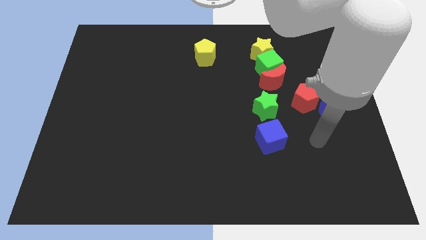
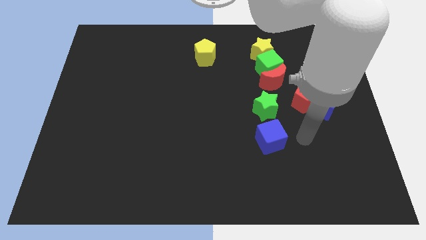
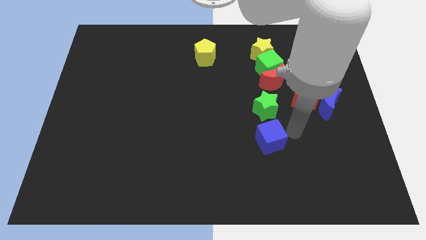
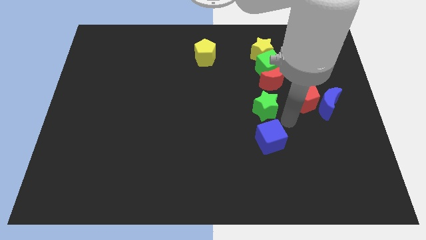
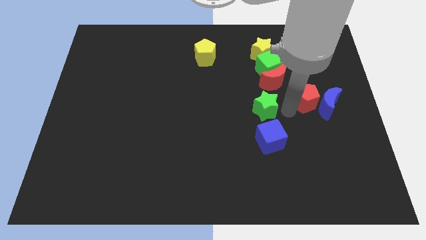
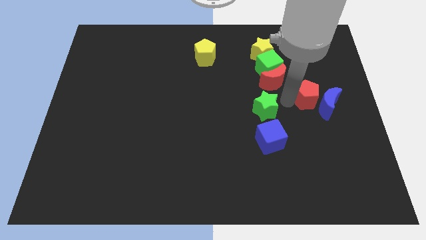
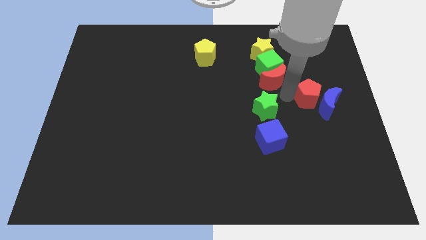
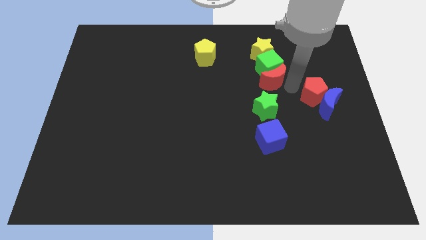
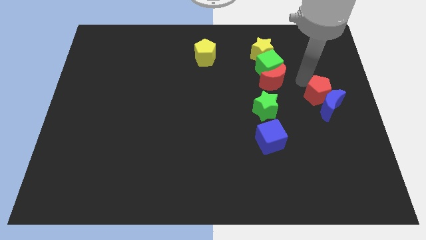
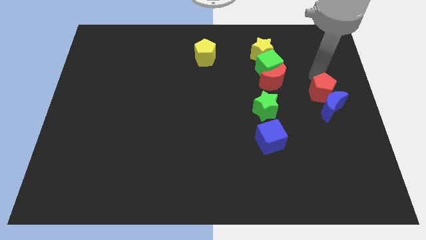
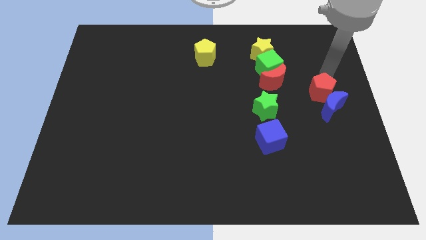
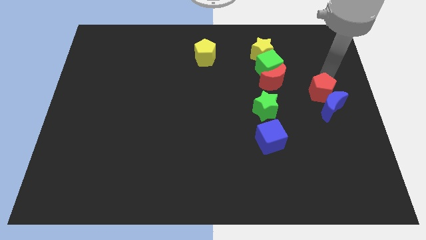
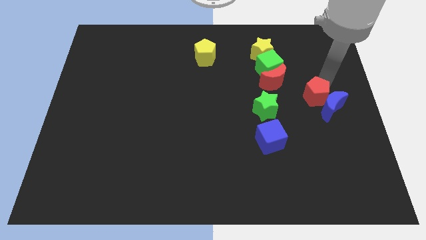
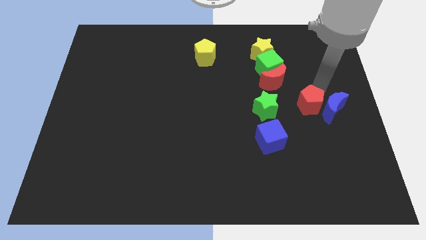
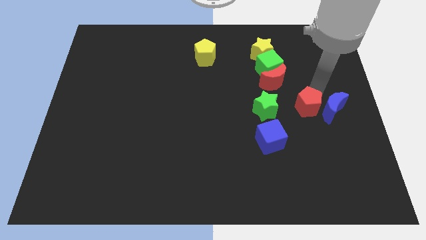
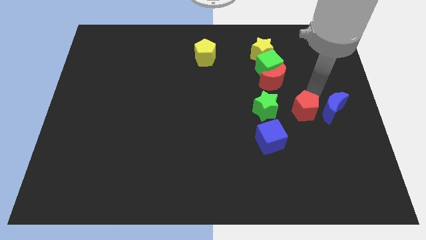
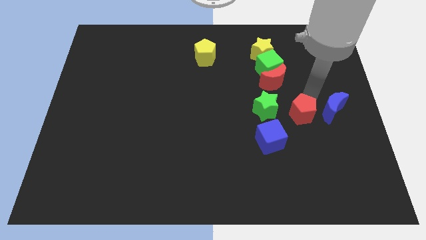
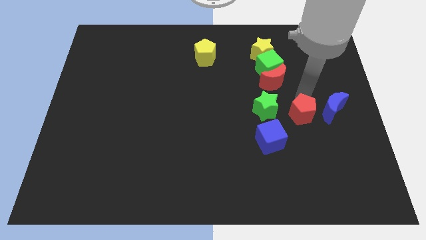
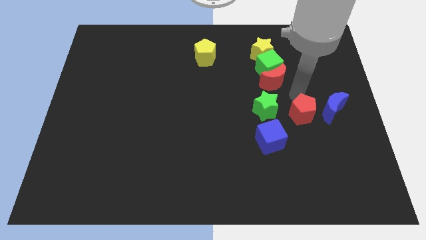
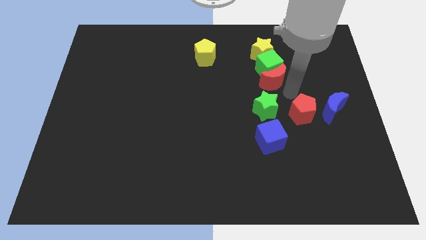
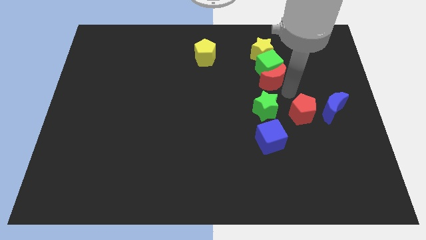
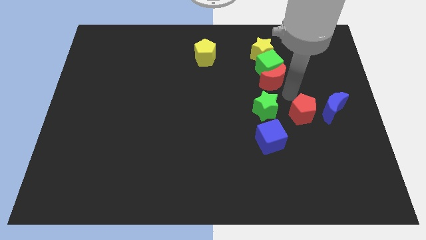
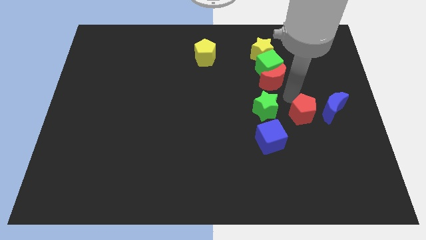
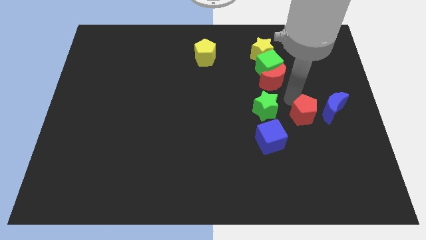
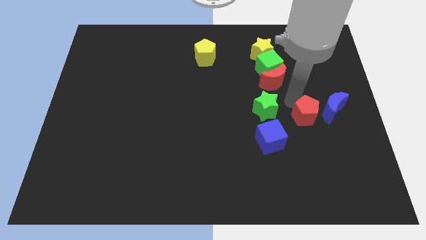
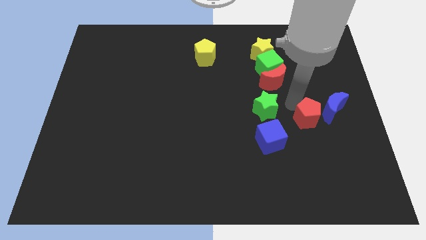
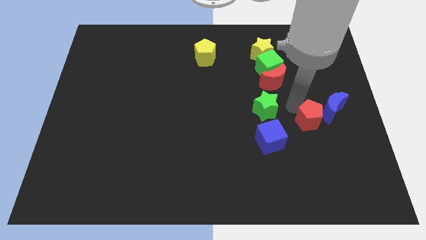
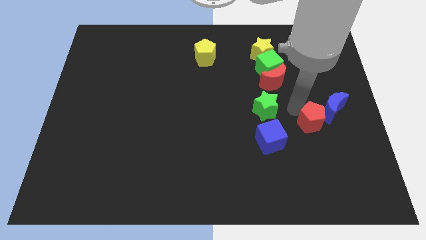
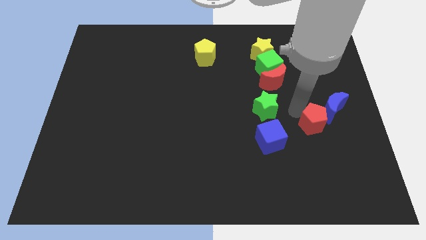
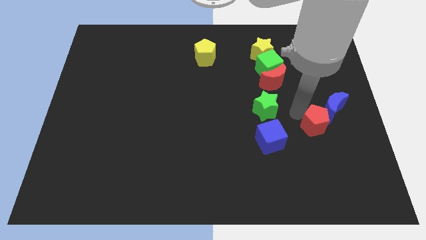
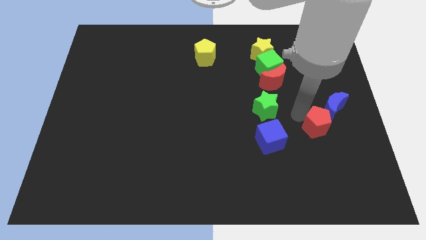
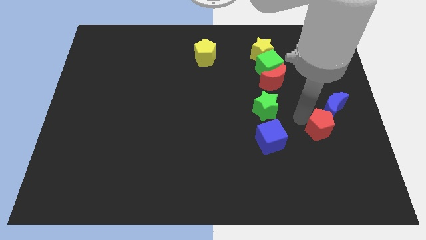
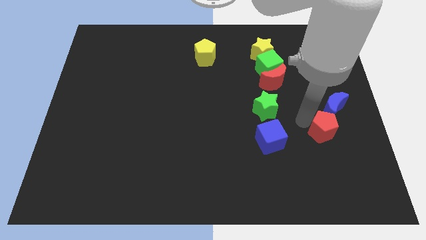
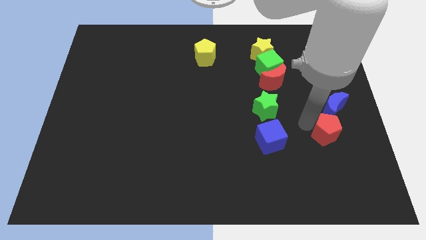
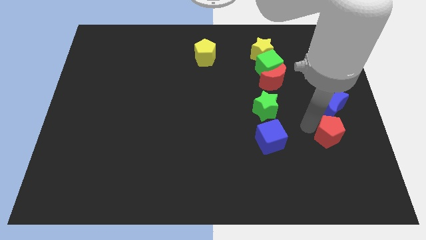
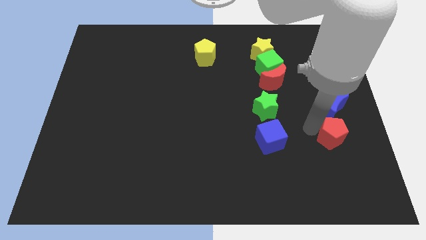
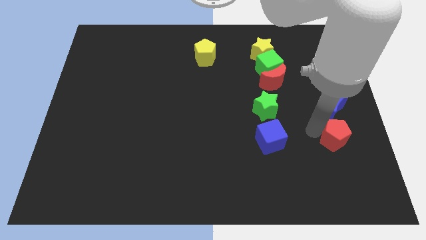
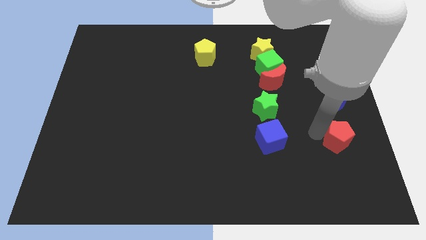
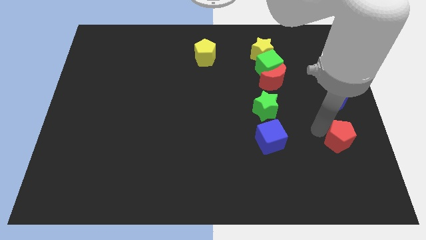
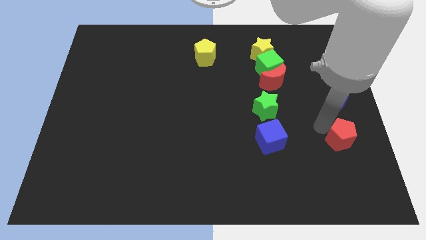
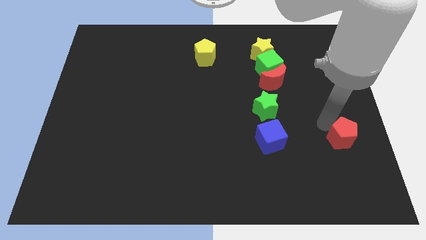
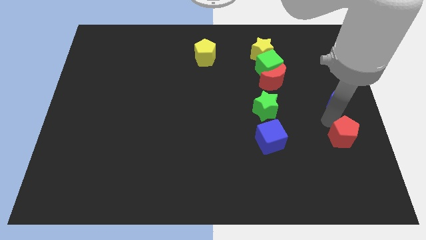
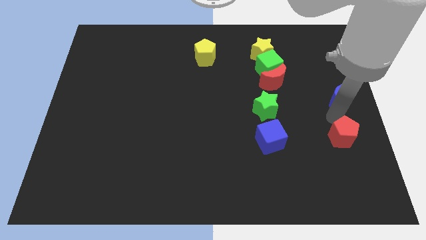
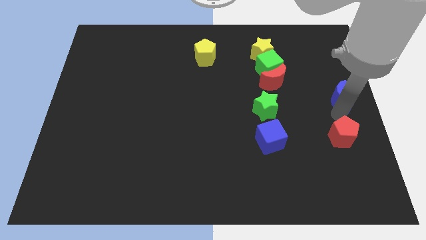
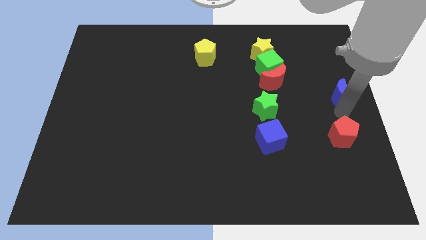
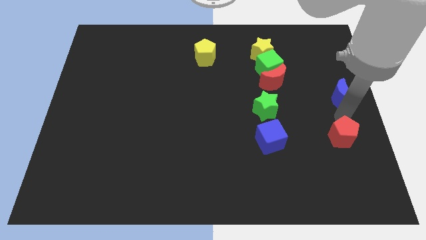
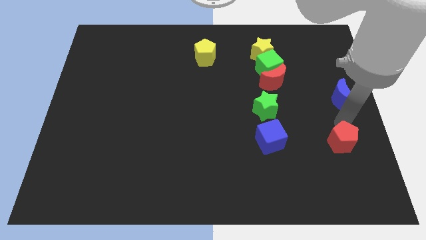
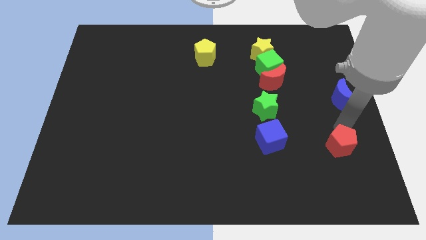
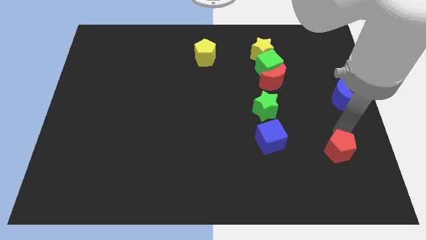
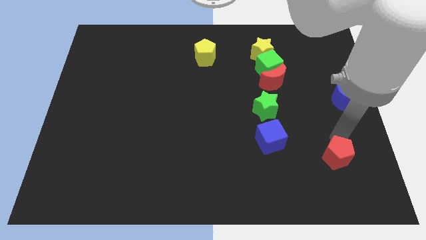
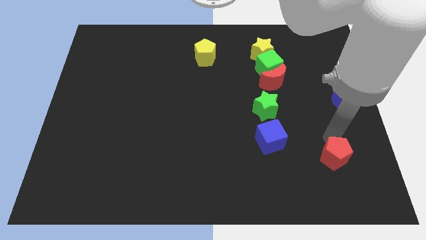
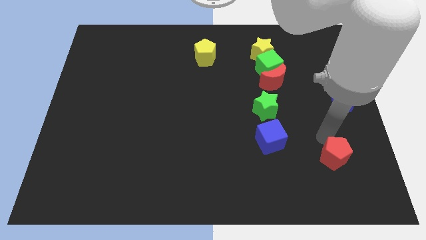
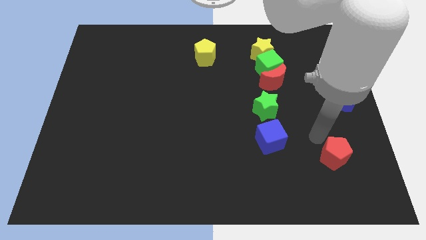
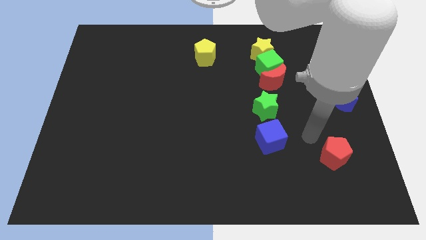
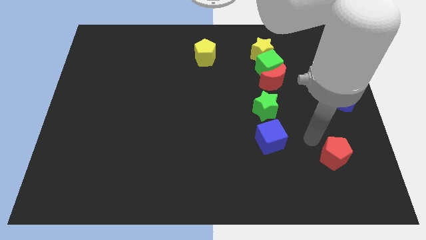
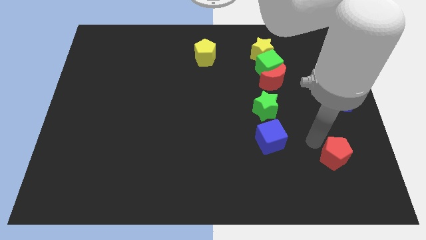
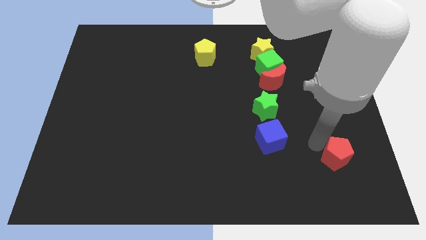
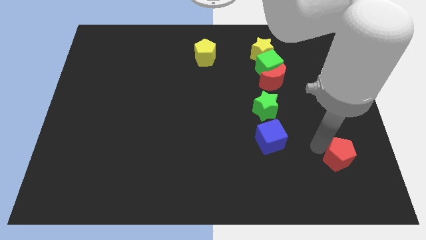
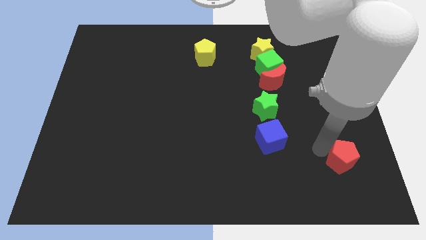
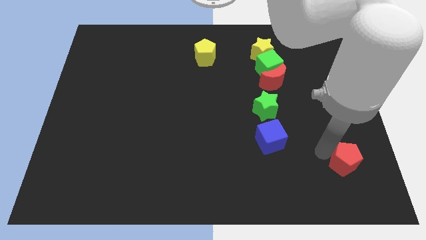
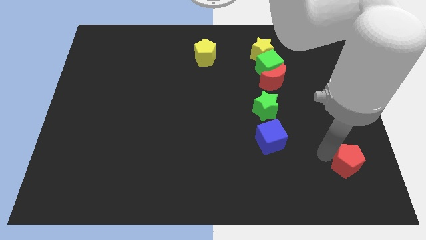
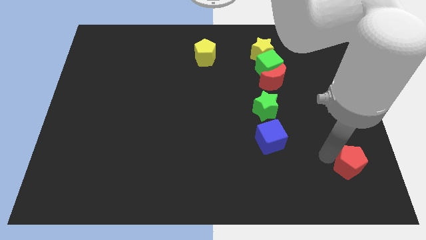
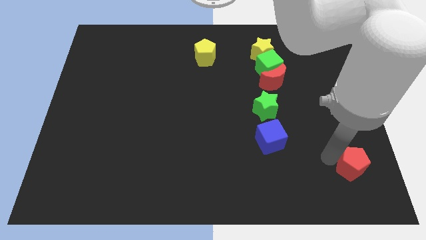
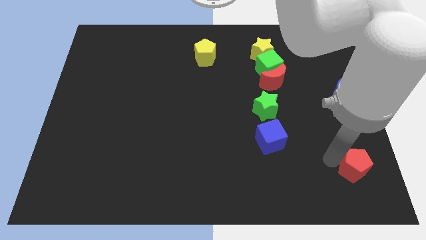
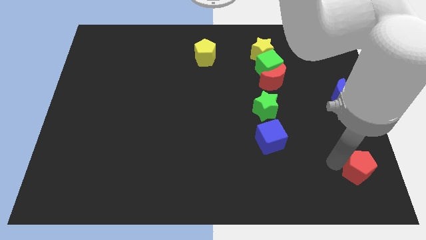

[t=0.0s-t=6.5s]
put the red pentagon to the bottom right corner

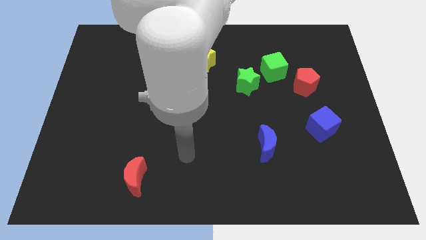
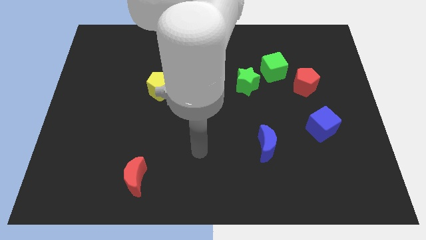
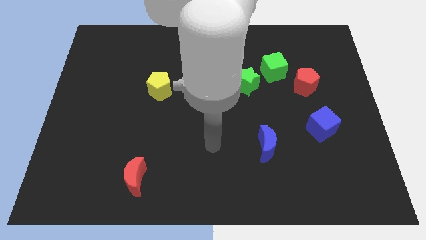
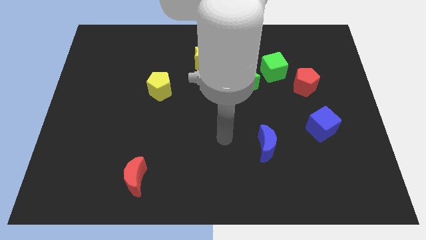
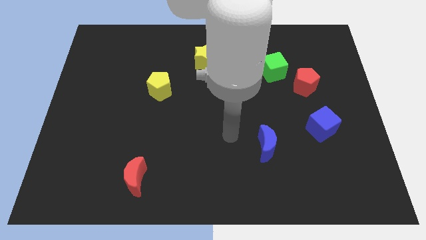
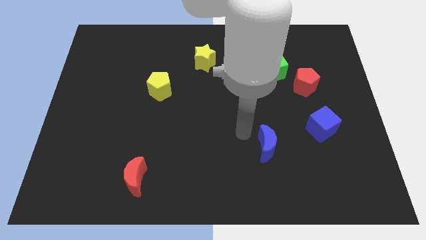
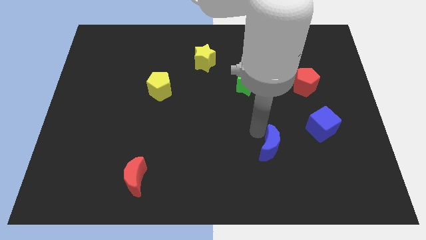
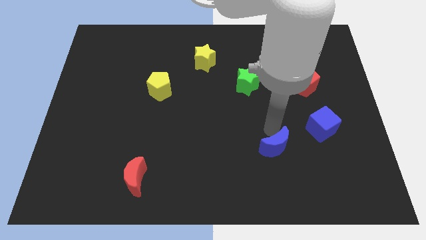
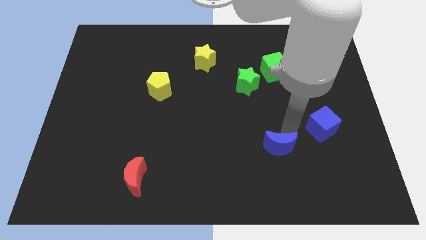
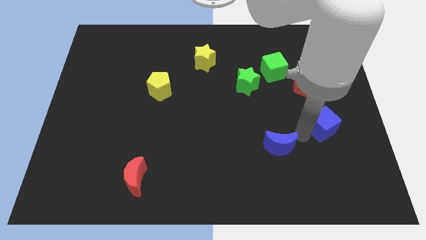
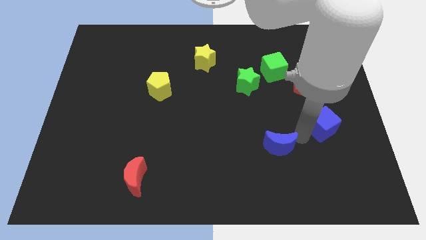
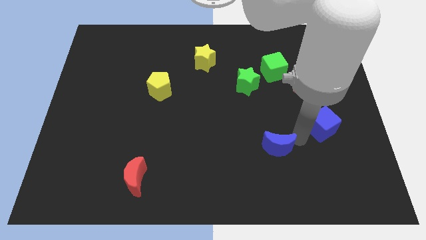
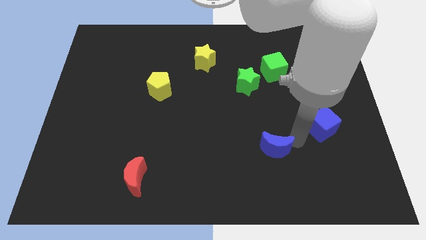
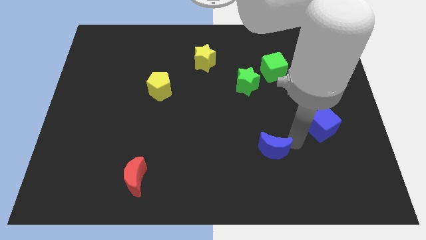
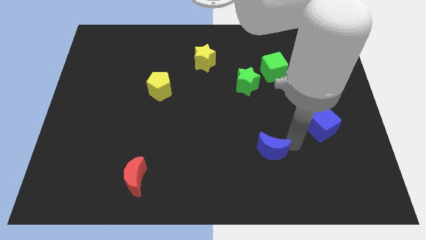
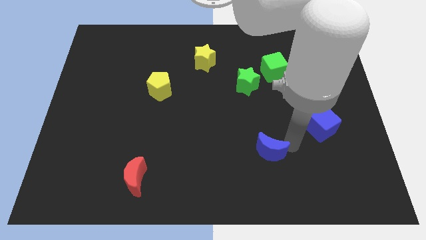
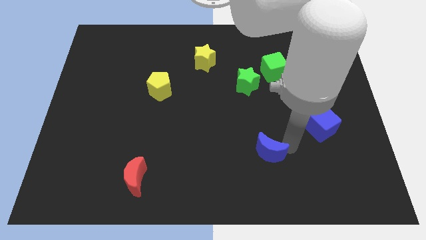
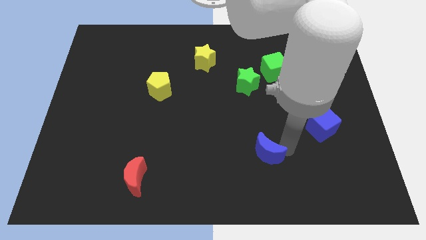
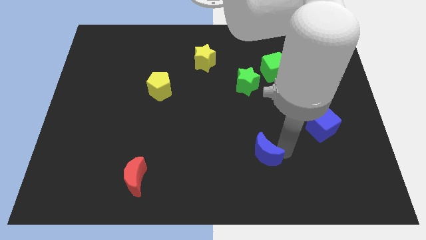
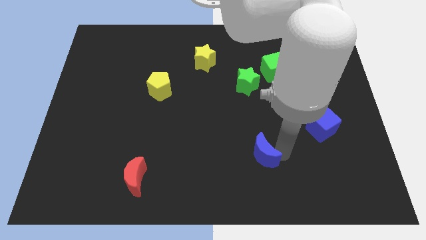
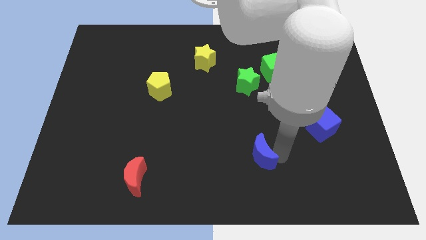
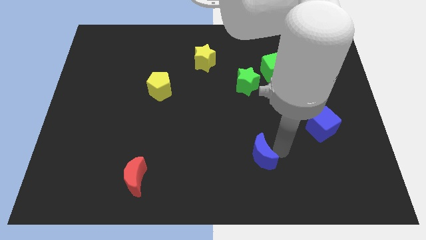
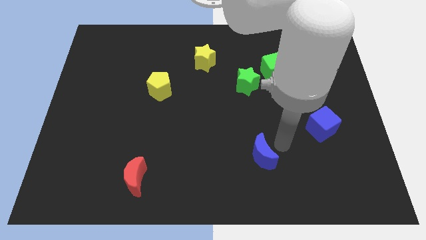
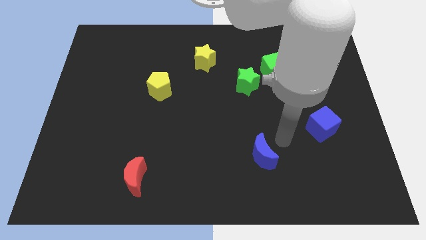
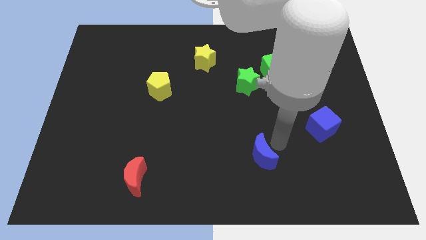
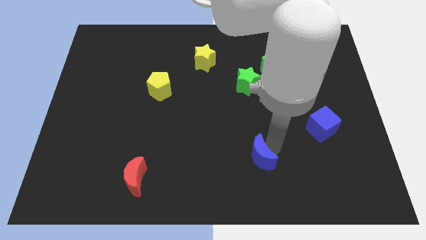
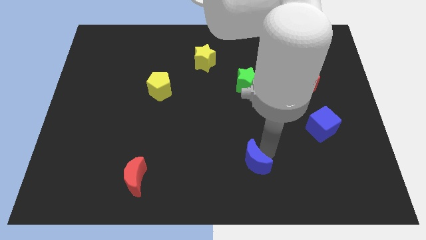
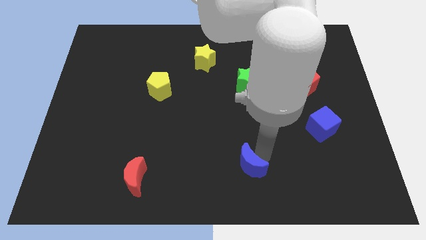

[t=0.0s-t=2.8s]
put the blue moon to the bottom
